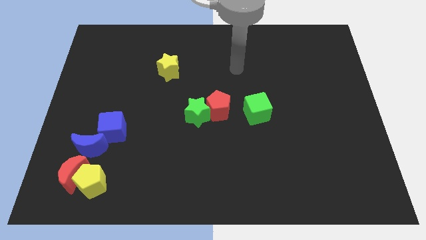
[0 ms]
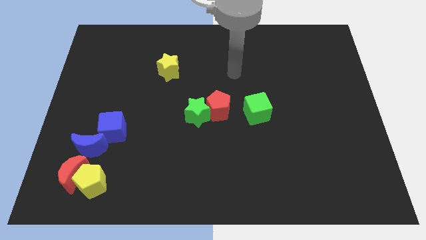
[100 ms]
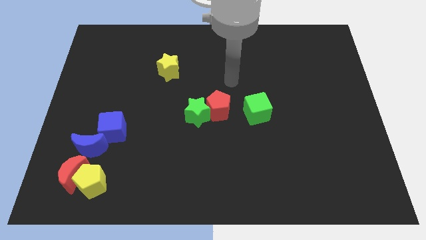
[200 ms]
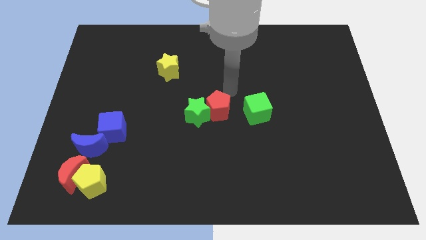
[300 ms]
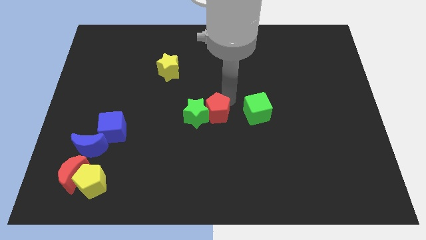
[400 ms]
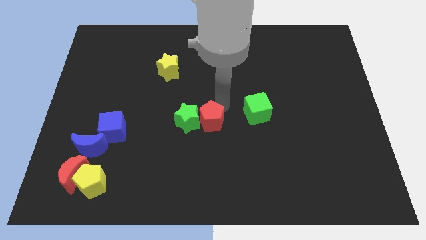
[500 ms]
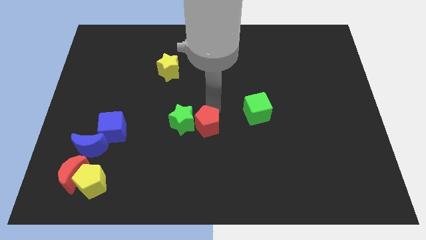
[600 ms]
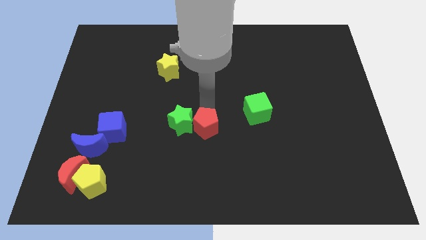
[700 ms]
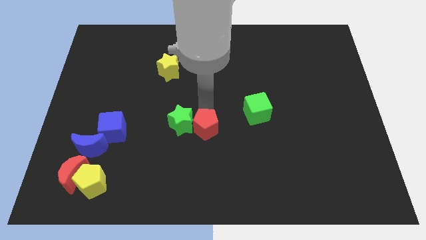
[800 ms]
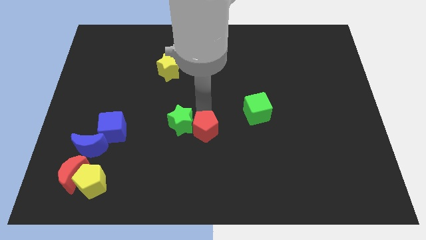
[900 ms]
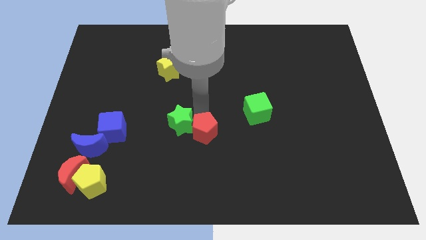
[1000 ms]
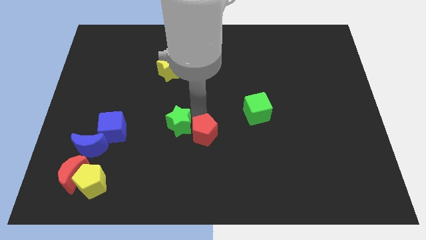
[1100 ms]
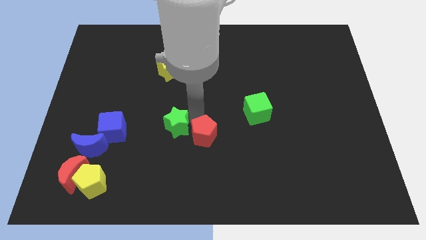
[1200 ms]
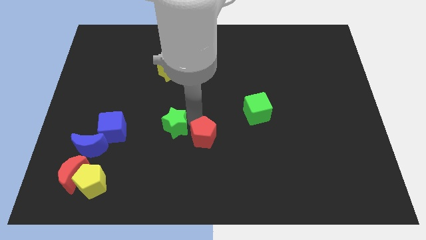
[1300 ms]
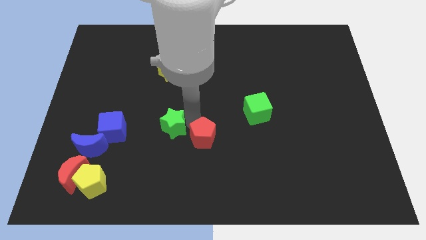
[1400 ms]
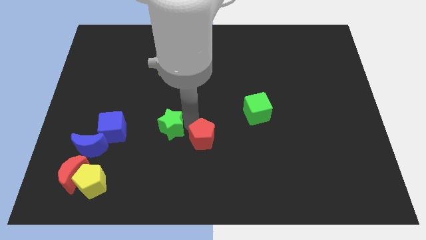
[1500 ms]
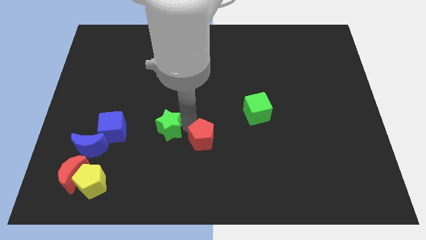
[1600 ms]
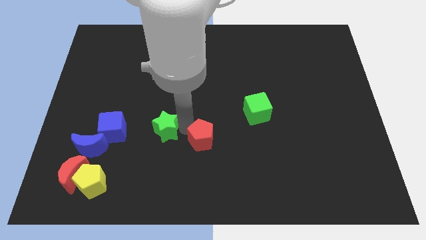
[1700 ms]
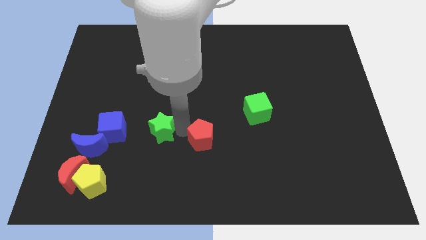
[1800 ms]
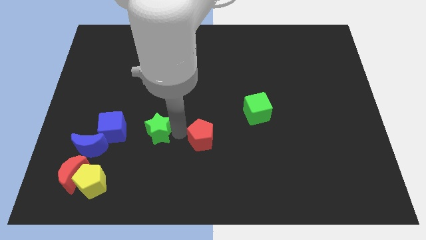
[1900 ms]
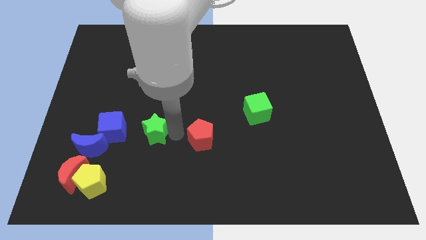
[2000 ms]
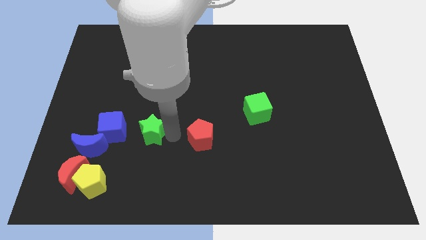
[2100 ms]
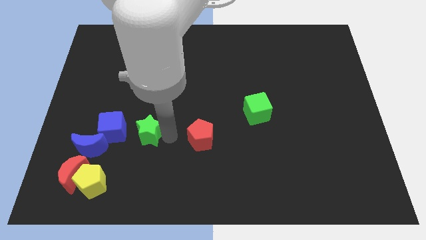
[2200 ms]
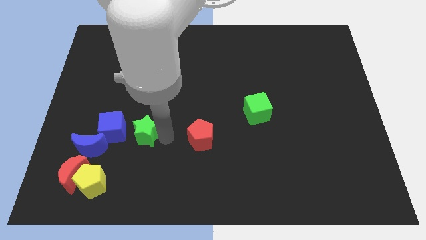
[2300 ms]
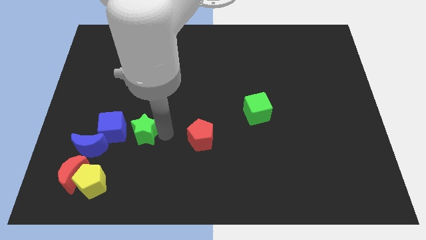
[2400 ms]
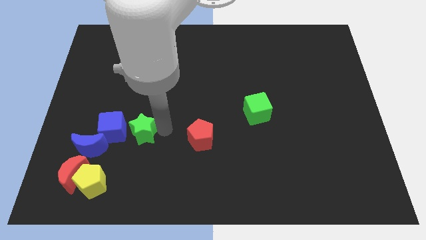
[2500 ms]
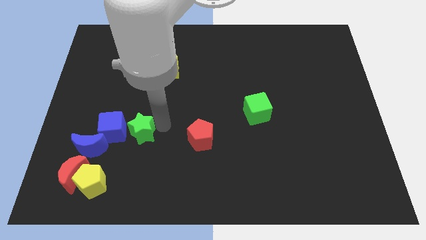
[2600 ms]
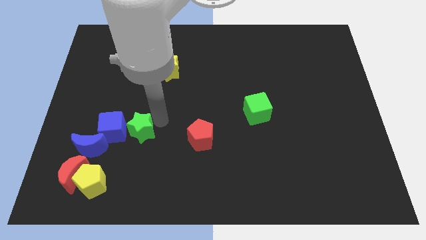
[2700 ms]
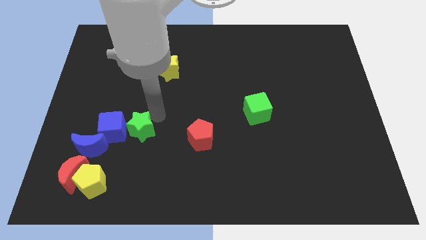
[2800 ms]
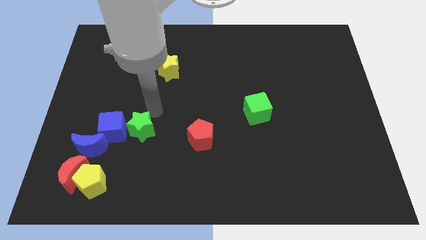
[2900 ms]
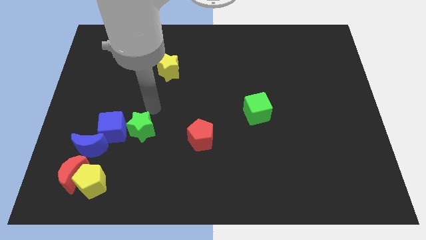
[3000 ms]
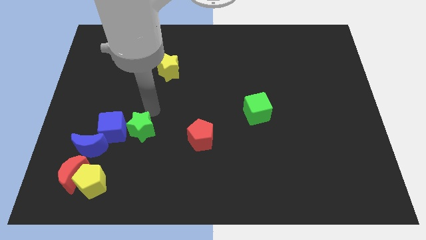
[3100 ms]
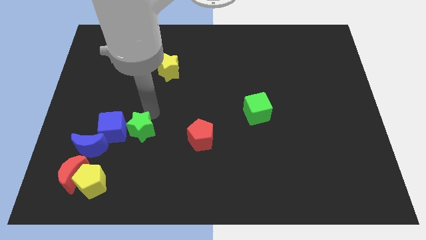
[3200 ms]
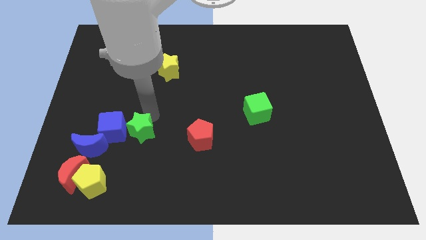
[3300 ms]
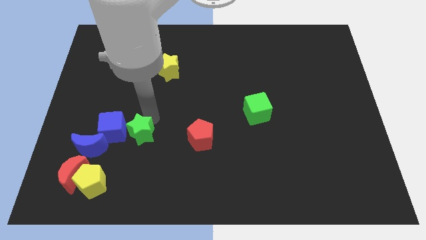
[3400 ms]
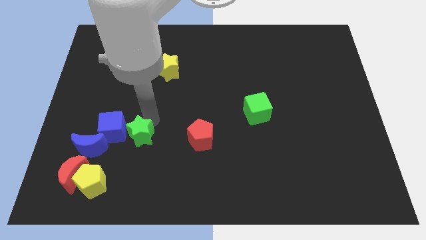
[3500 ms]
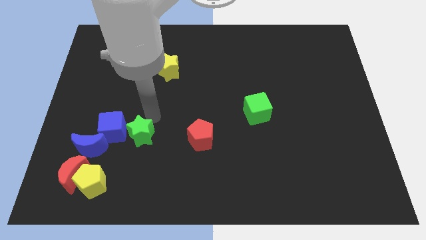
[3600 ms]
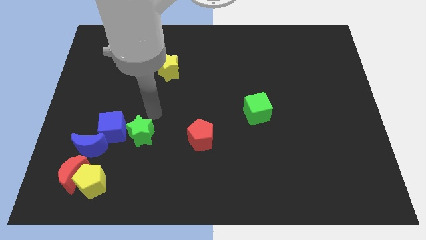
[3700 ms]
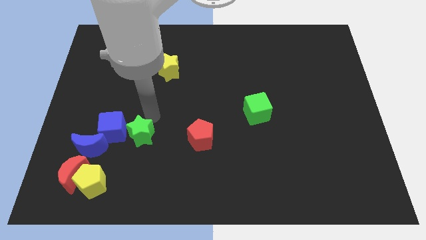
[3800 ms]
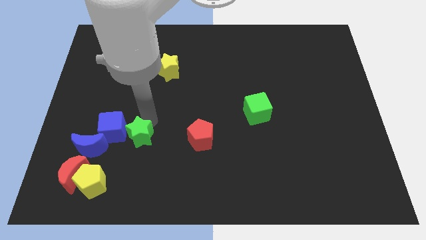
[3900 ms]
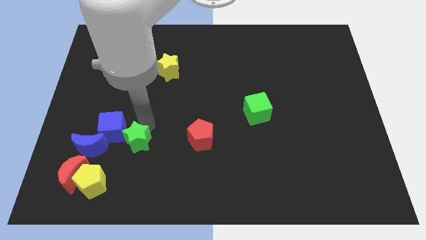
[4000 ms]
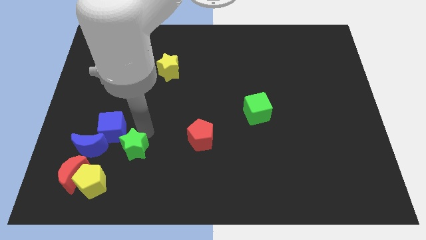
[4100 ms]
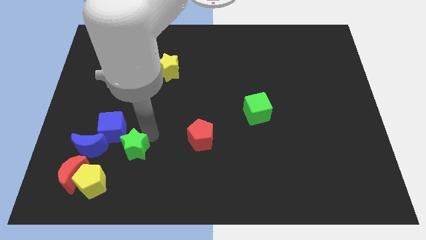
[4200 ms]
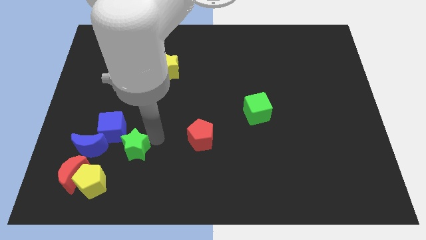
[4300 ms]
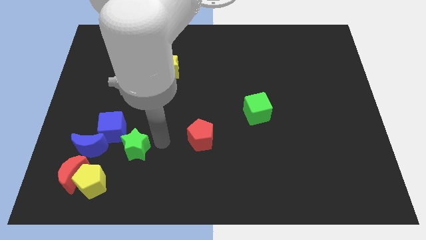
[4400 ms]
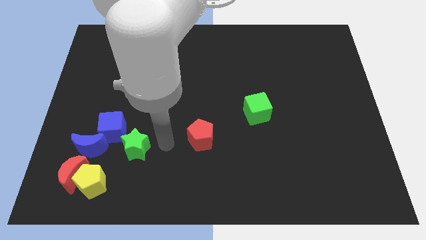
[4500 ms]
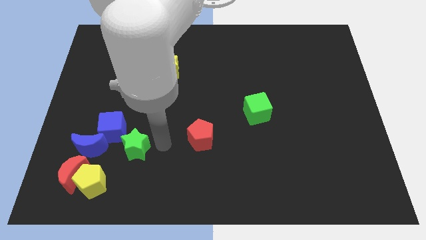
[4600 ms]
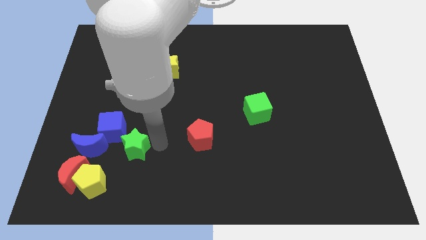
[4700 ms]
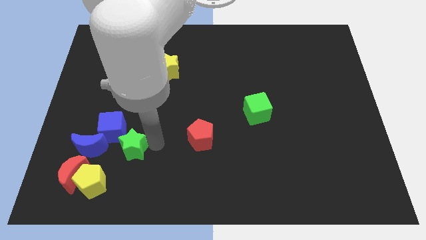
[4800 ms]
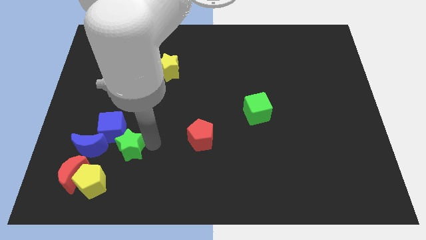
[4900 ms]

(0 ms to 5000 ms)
slide the green star diagonally up and to the right of the red moon

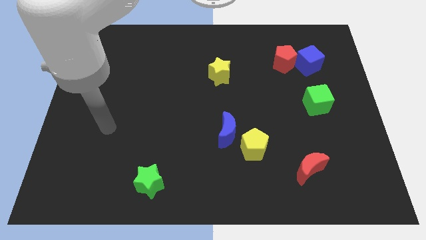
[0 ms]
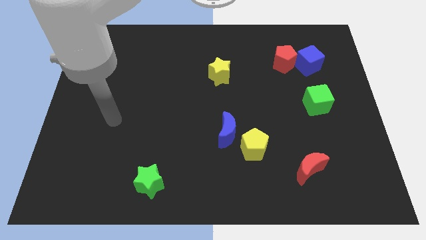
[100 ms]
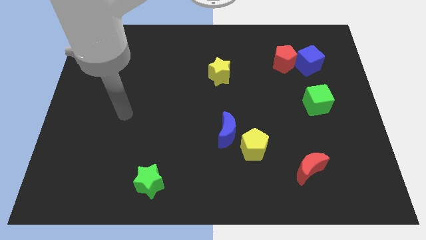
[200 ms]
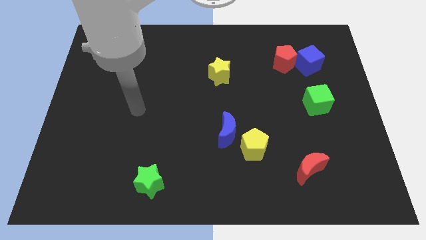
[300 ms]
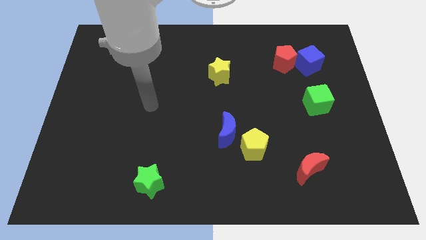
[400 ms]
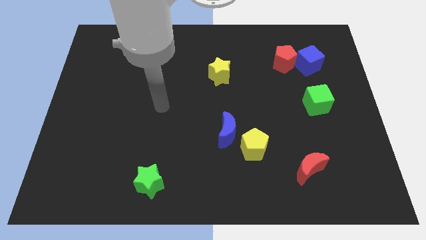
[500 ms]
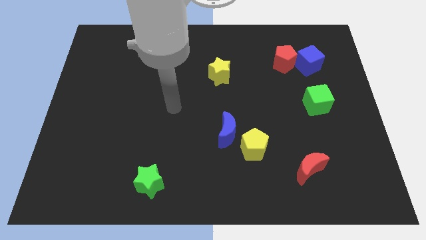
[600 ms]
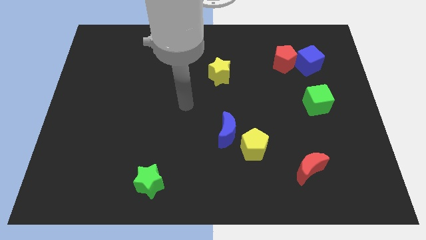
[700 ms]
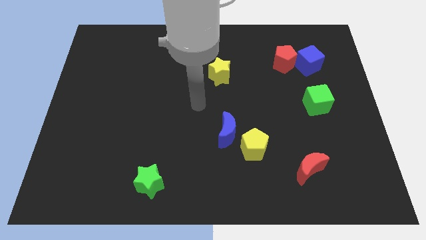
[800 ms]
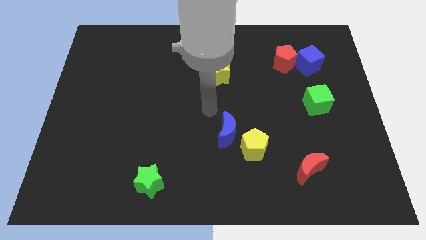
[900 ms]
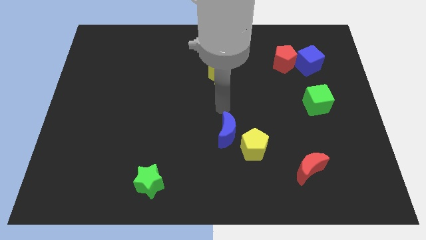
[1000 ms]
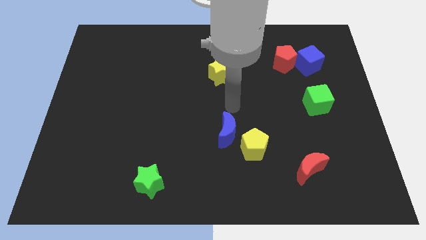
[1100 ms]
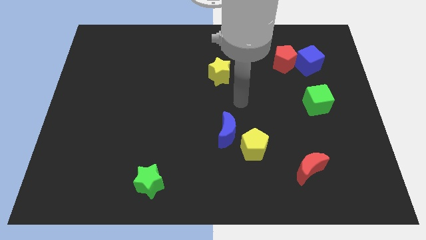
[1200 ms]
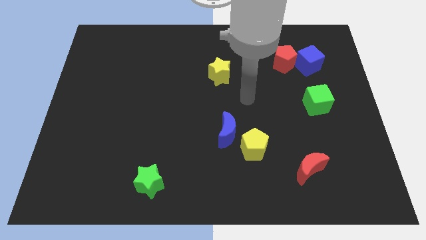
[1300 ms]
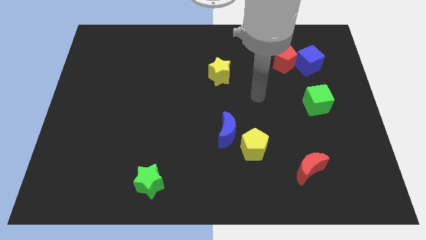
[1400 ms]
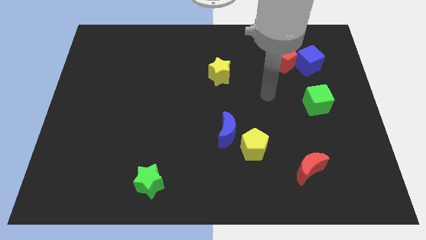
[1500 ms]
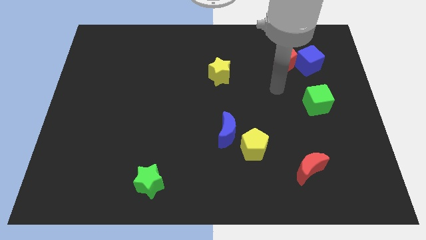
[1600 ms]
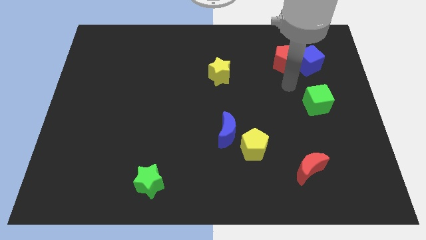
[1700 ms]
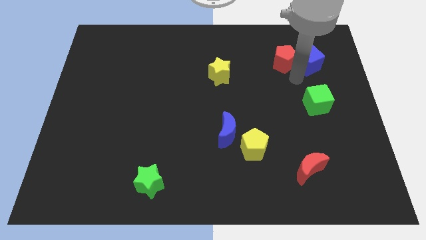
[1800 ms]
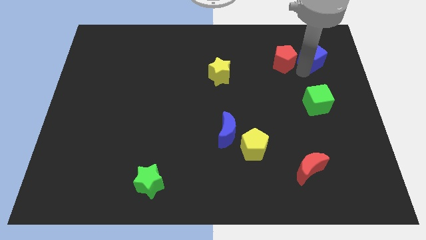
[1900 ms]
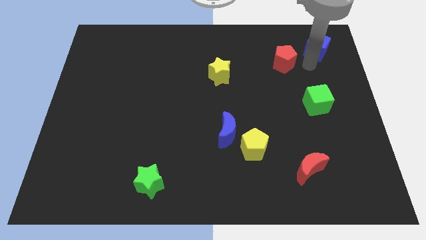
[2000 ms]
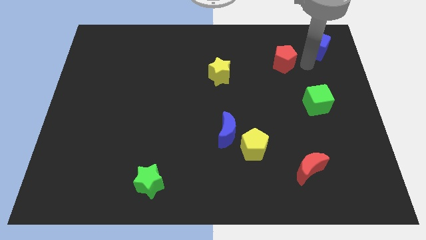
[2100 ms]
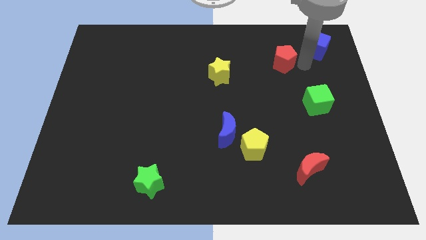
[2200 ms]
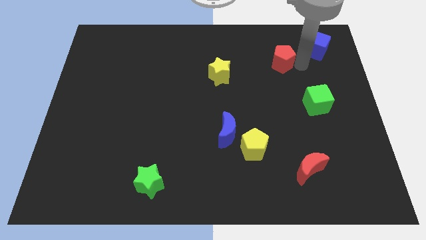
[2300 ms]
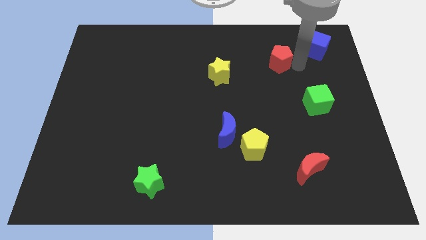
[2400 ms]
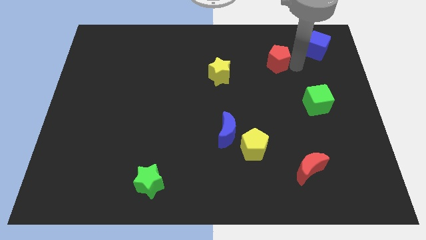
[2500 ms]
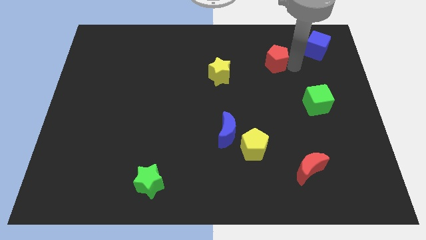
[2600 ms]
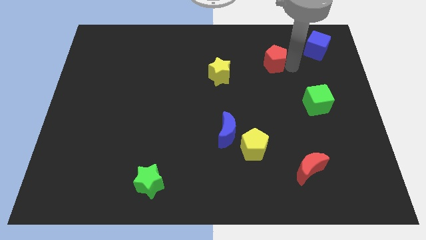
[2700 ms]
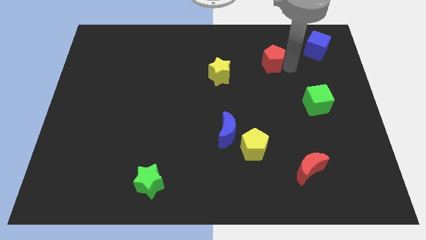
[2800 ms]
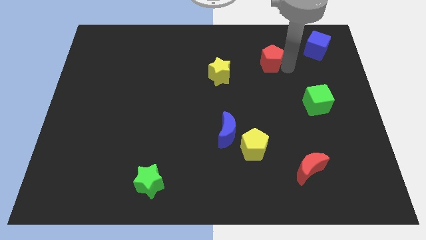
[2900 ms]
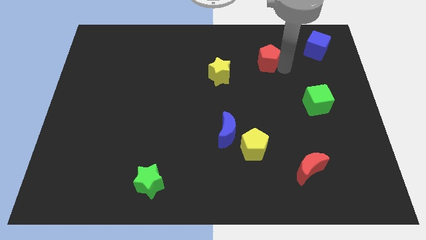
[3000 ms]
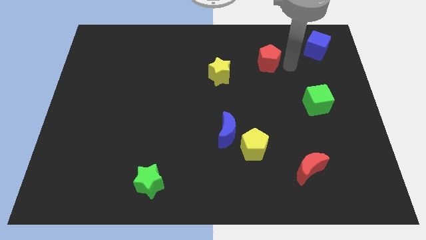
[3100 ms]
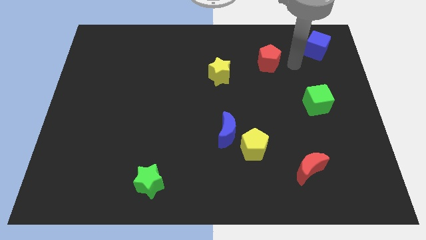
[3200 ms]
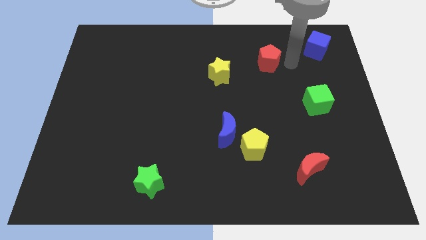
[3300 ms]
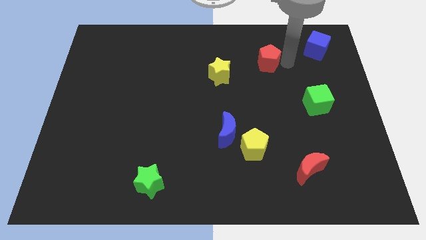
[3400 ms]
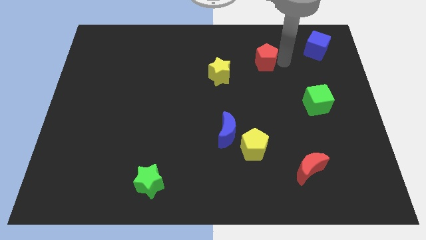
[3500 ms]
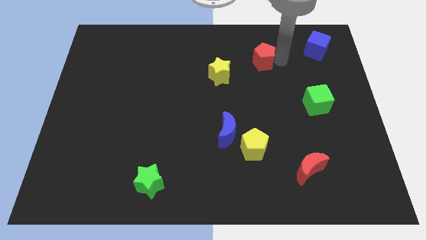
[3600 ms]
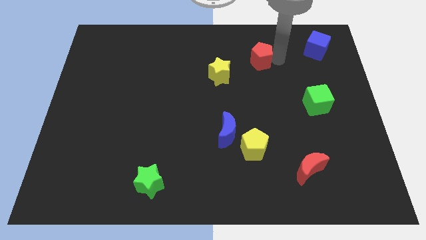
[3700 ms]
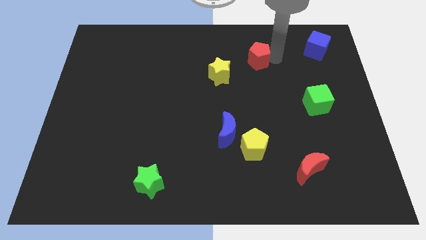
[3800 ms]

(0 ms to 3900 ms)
push the red pentagon to the top right of the yellow star
